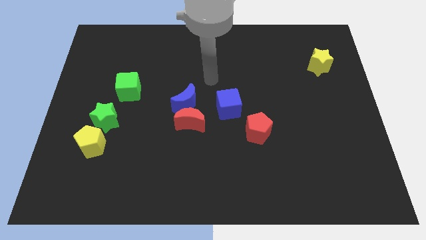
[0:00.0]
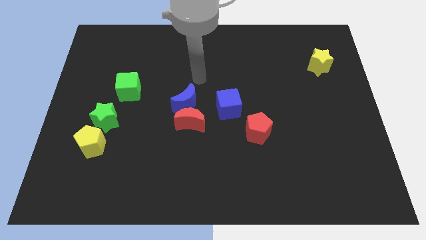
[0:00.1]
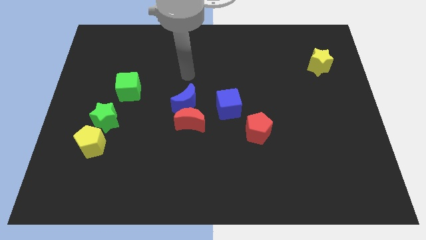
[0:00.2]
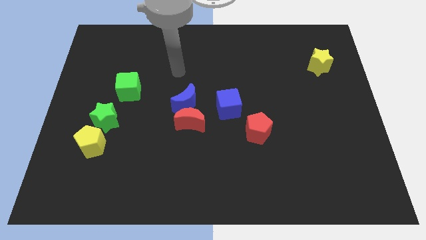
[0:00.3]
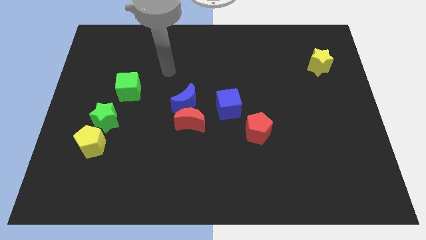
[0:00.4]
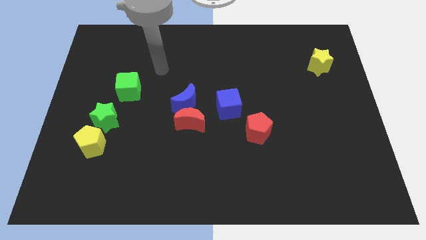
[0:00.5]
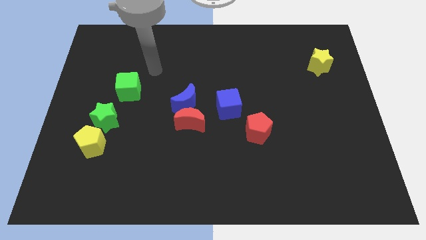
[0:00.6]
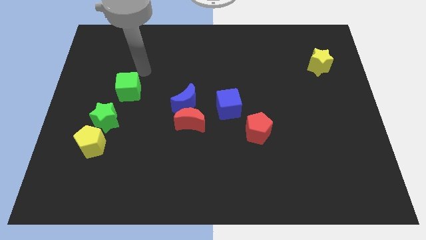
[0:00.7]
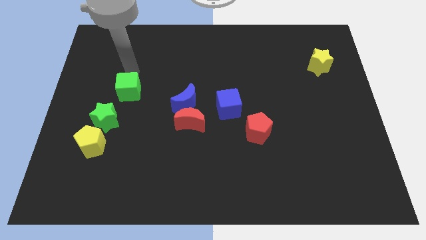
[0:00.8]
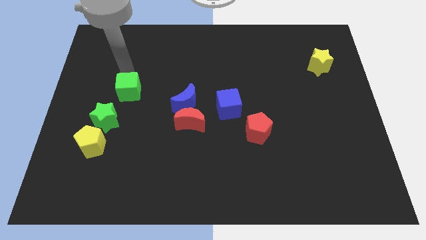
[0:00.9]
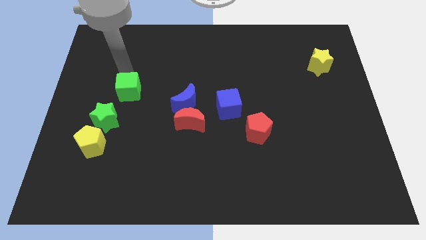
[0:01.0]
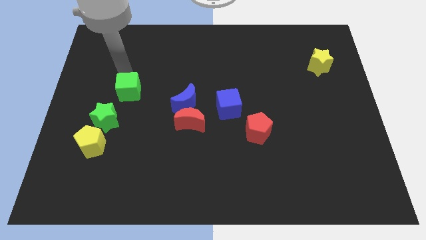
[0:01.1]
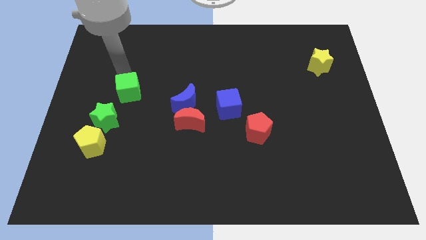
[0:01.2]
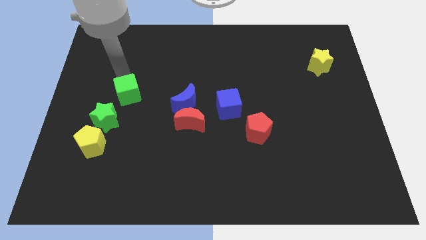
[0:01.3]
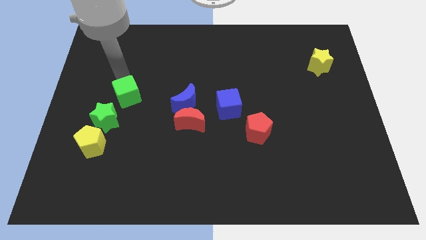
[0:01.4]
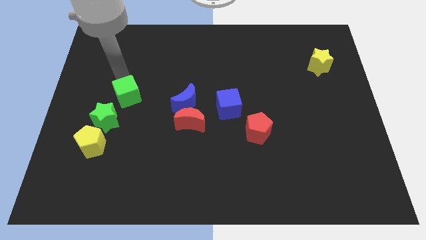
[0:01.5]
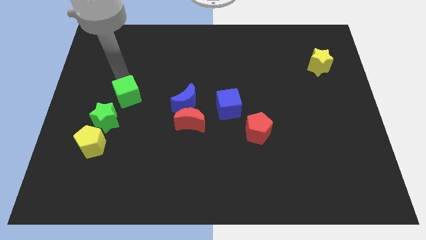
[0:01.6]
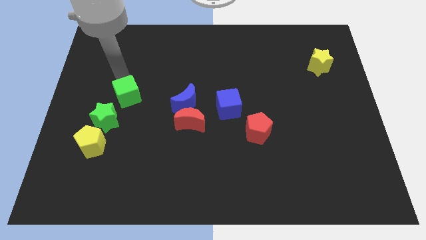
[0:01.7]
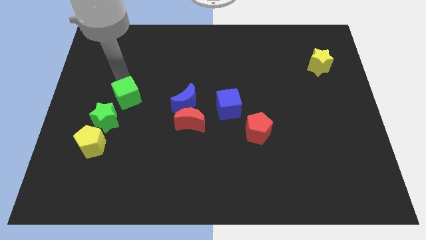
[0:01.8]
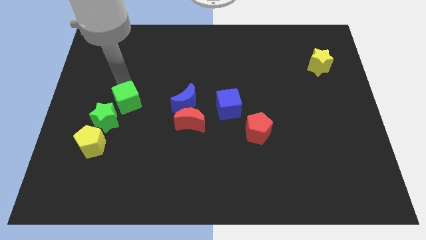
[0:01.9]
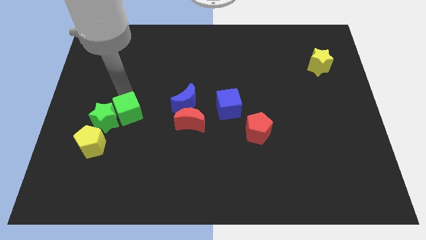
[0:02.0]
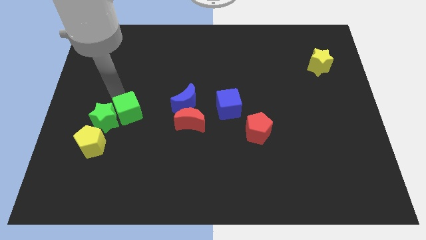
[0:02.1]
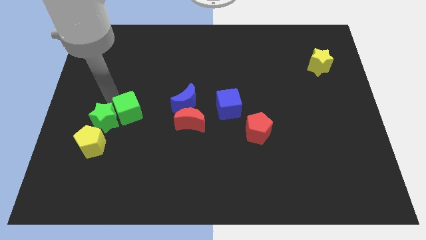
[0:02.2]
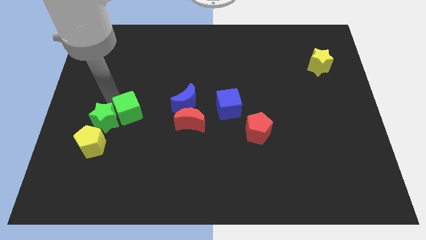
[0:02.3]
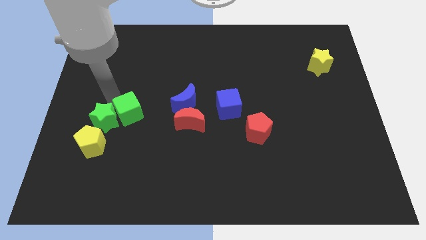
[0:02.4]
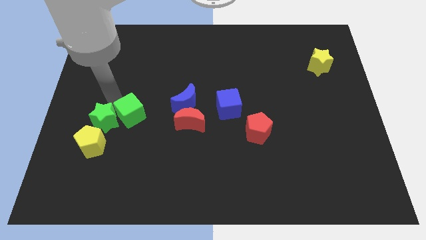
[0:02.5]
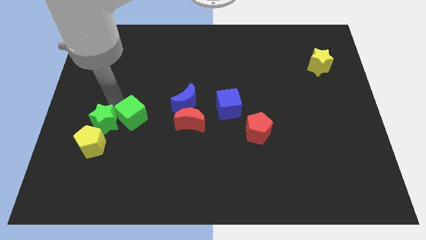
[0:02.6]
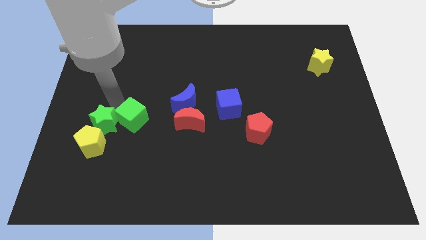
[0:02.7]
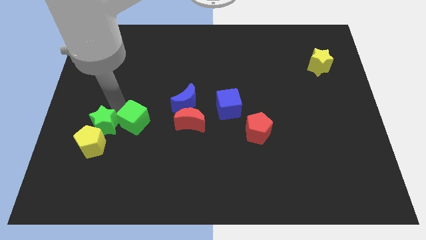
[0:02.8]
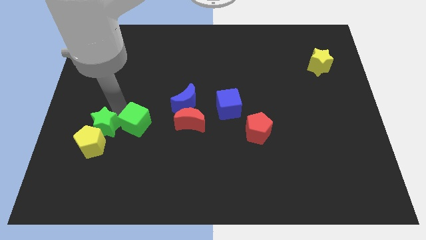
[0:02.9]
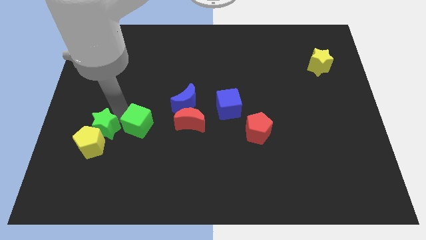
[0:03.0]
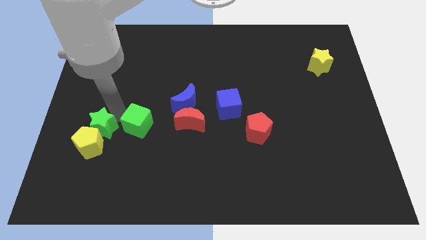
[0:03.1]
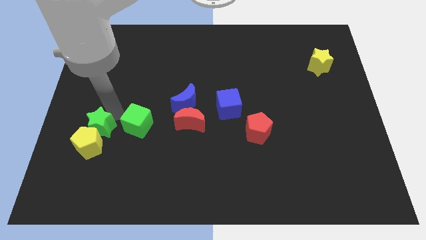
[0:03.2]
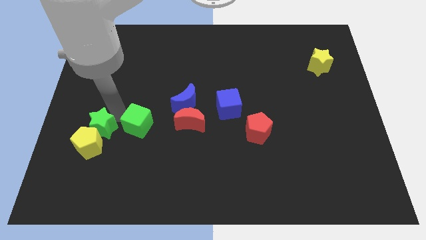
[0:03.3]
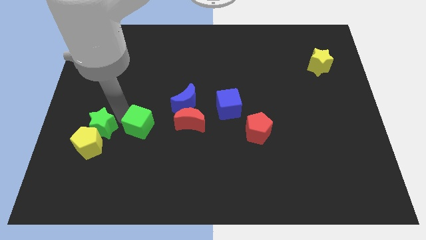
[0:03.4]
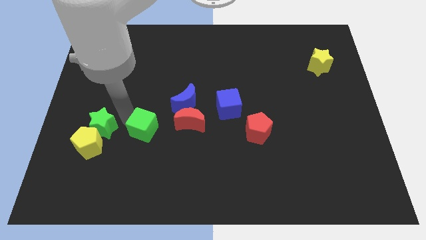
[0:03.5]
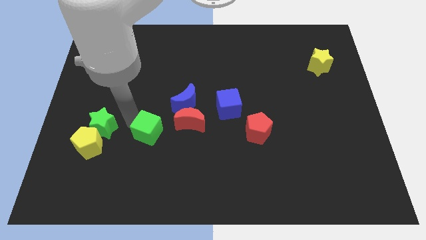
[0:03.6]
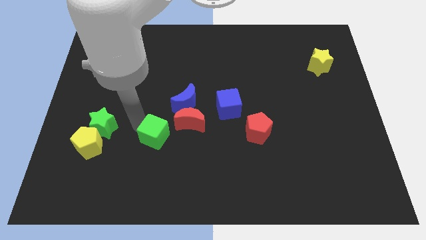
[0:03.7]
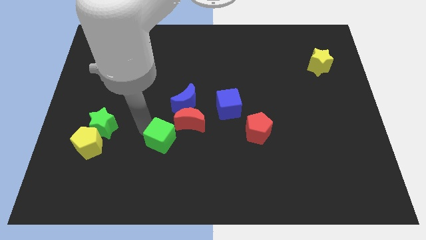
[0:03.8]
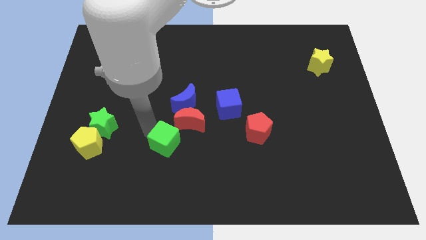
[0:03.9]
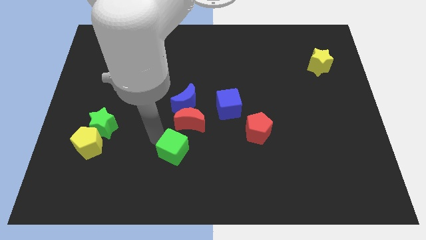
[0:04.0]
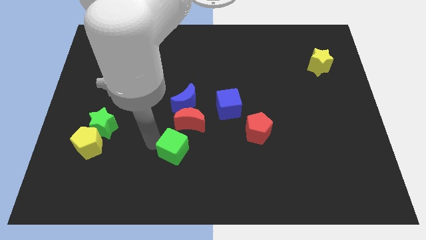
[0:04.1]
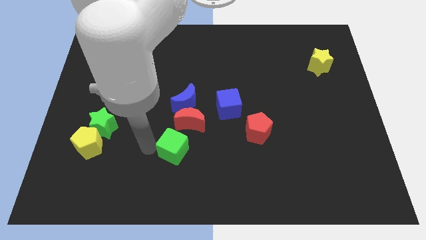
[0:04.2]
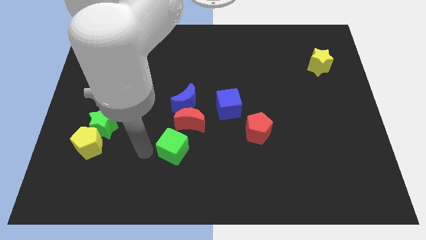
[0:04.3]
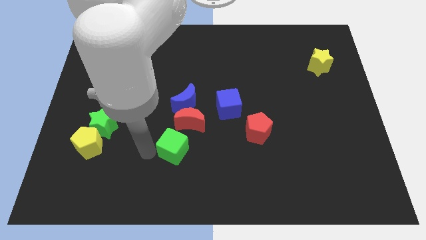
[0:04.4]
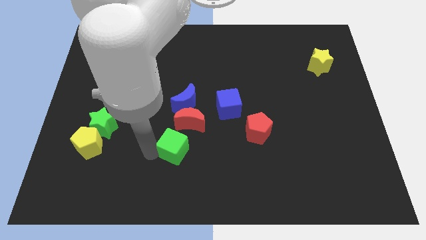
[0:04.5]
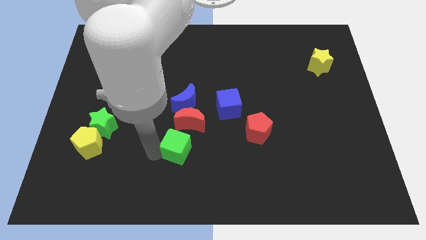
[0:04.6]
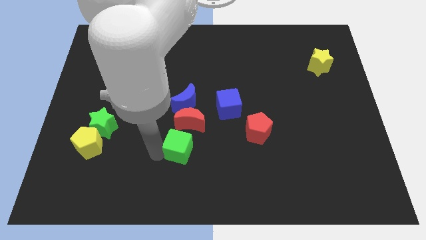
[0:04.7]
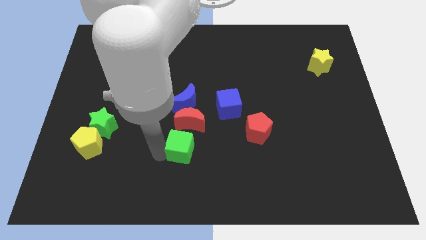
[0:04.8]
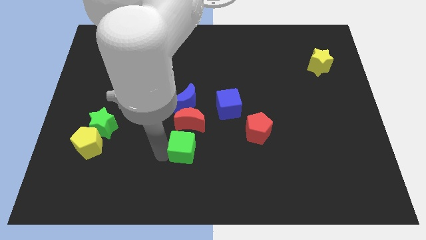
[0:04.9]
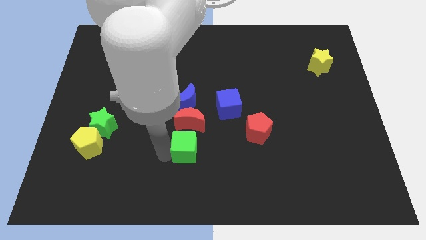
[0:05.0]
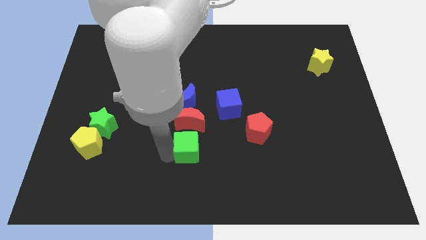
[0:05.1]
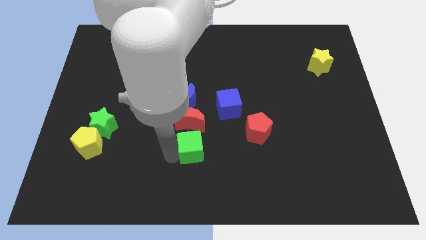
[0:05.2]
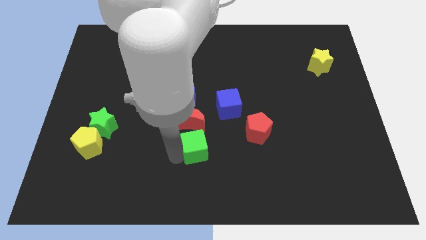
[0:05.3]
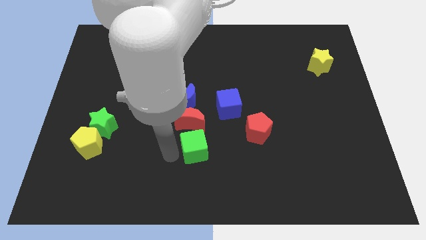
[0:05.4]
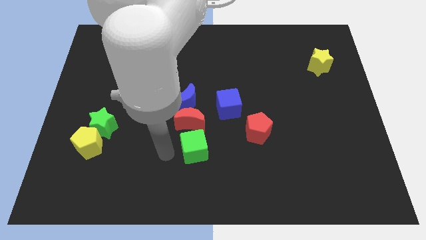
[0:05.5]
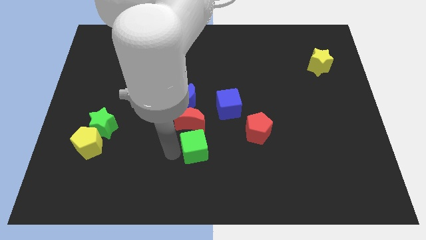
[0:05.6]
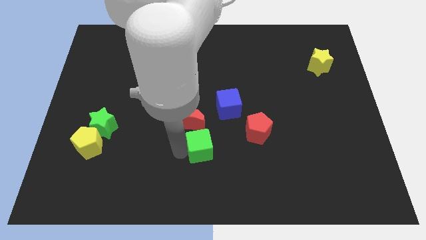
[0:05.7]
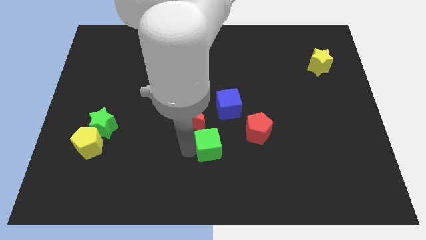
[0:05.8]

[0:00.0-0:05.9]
move the green cube to the bottom side of the blue cube
